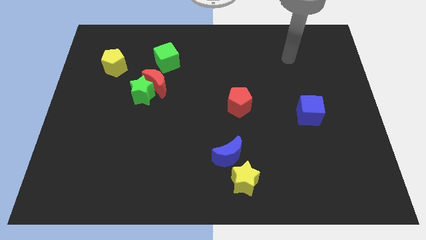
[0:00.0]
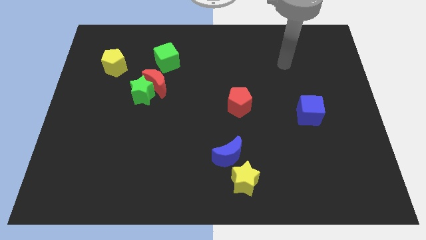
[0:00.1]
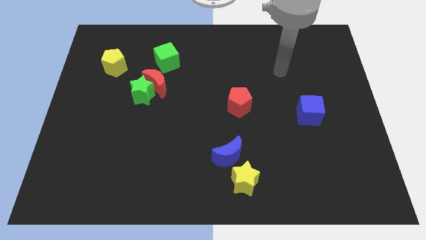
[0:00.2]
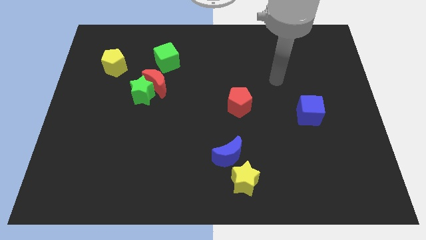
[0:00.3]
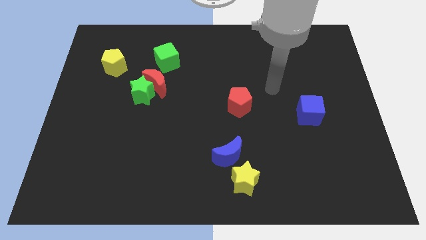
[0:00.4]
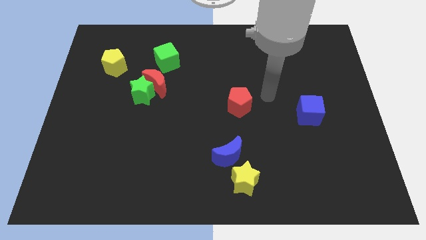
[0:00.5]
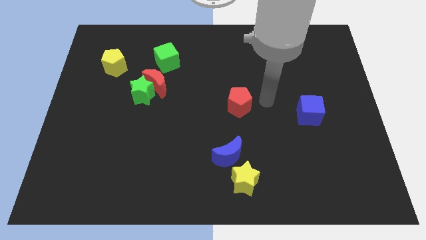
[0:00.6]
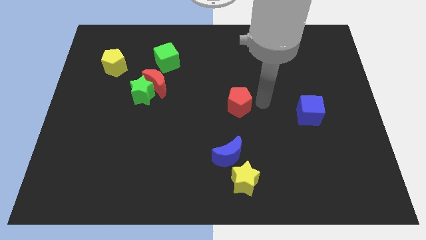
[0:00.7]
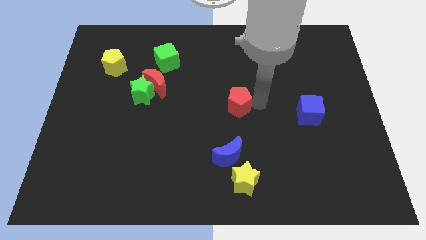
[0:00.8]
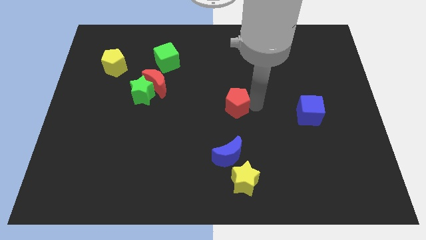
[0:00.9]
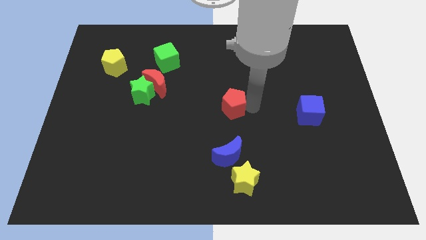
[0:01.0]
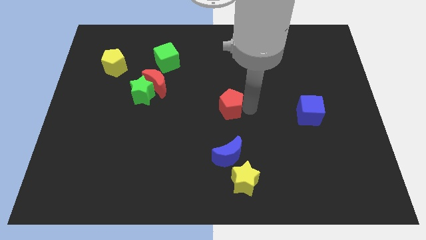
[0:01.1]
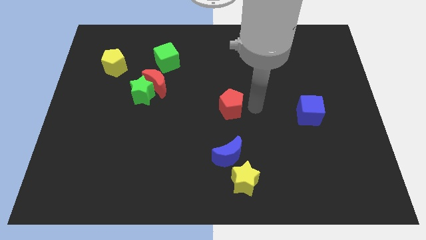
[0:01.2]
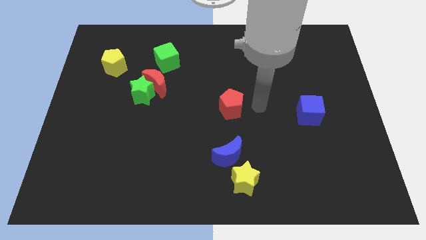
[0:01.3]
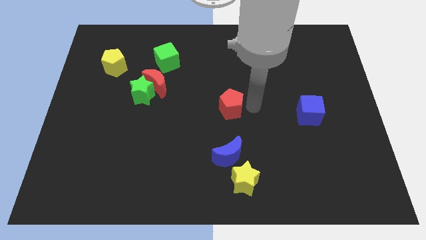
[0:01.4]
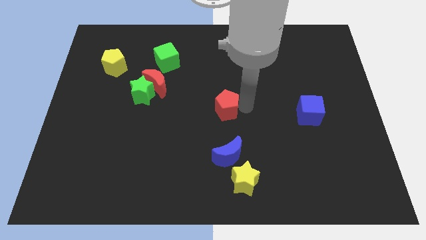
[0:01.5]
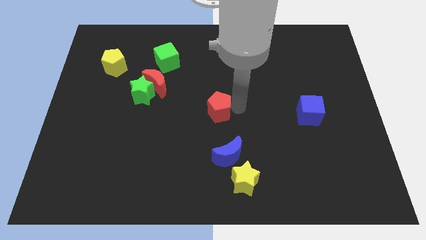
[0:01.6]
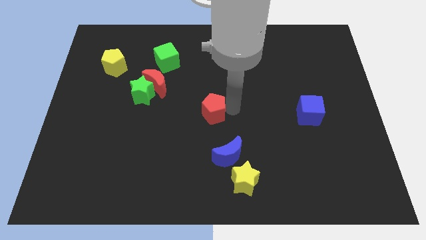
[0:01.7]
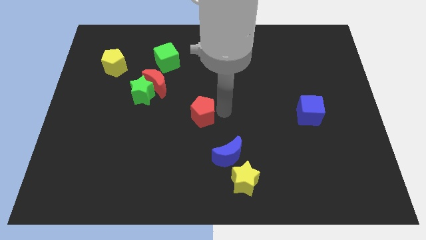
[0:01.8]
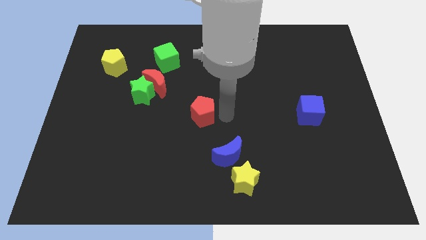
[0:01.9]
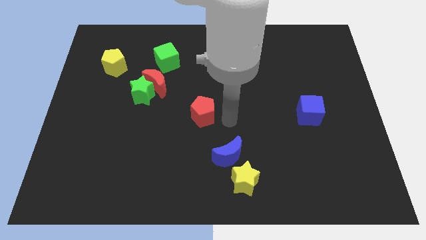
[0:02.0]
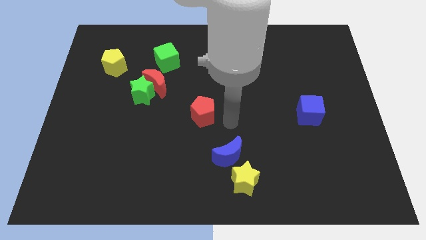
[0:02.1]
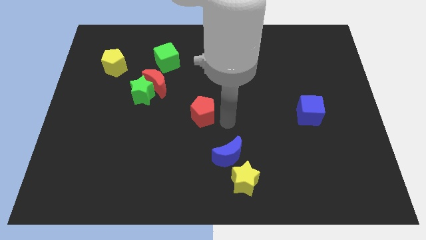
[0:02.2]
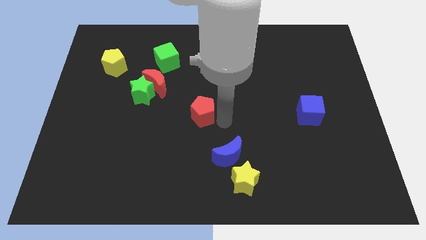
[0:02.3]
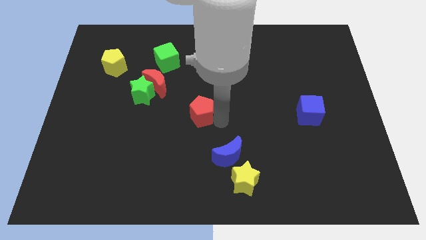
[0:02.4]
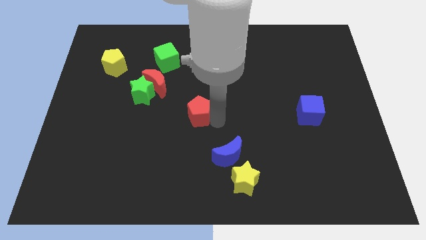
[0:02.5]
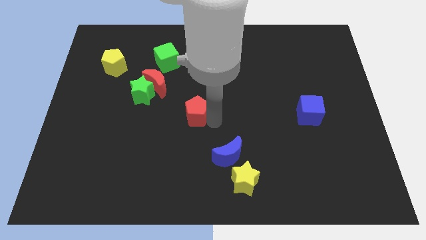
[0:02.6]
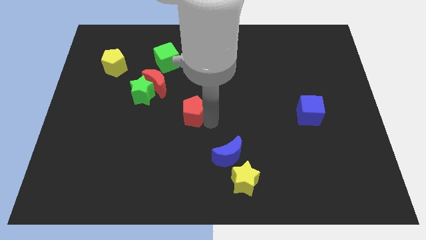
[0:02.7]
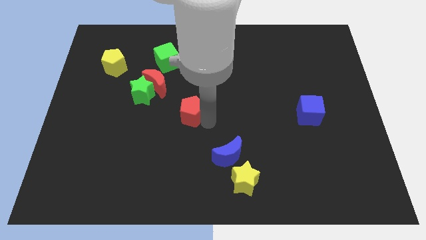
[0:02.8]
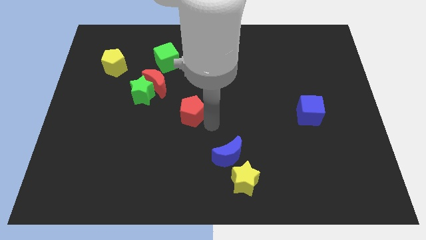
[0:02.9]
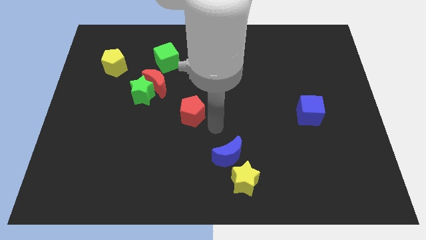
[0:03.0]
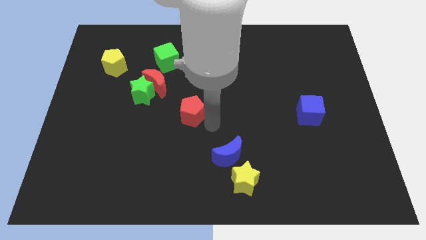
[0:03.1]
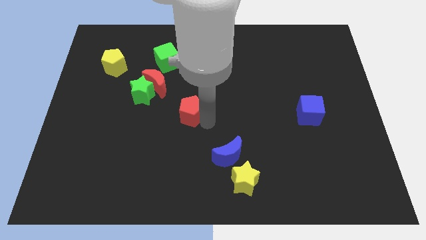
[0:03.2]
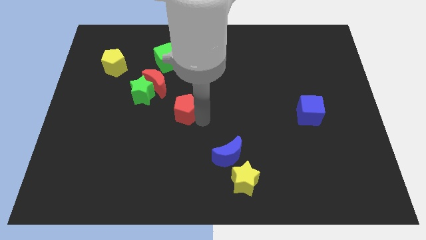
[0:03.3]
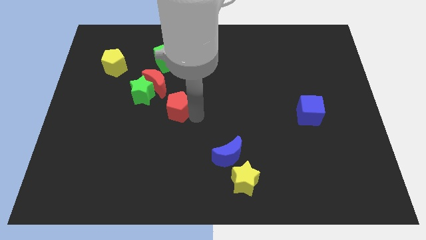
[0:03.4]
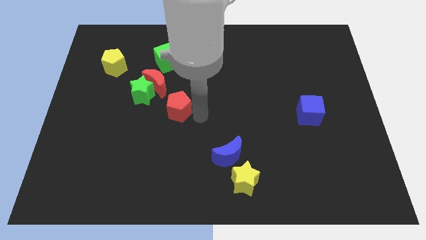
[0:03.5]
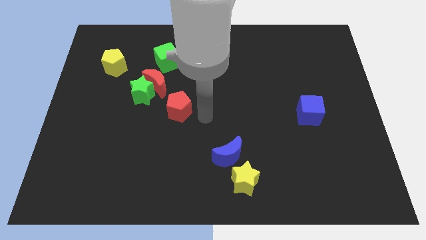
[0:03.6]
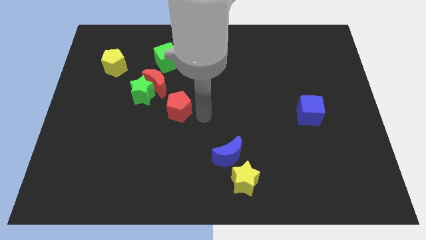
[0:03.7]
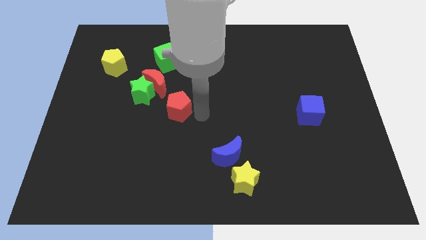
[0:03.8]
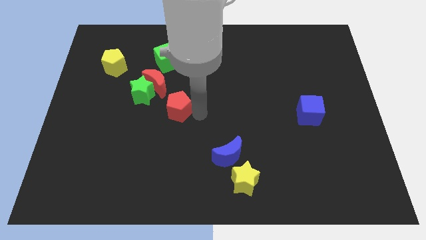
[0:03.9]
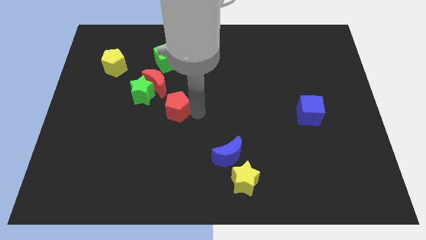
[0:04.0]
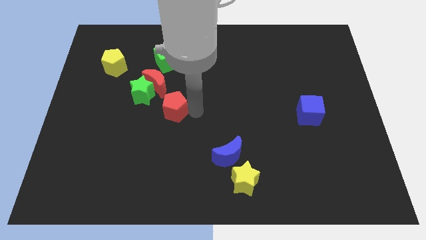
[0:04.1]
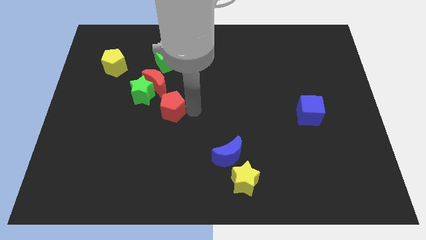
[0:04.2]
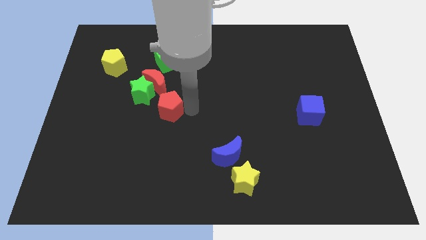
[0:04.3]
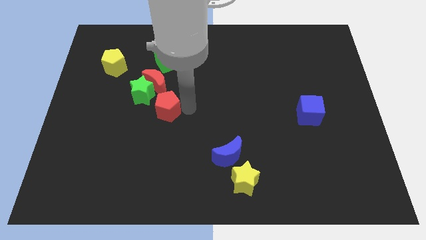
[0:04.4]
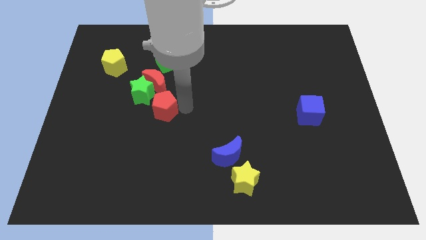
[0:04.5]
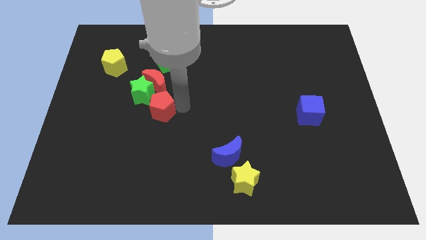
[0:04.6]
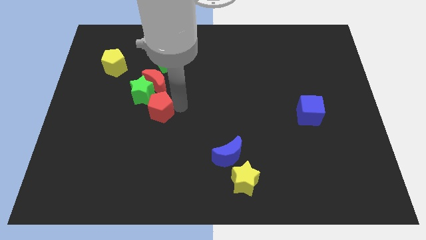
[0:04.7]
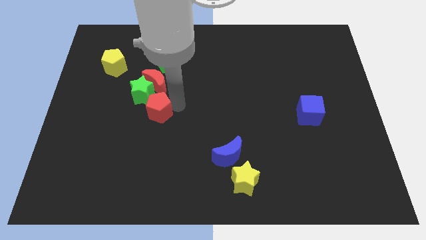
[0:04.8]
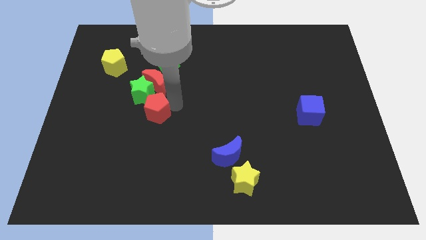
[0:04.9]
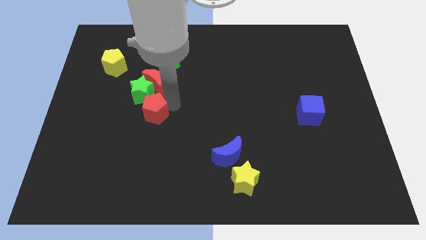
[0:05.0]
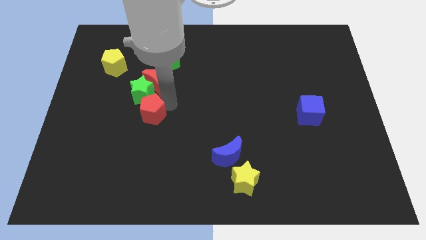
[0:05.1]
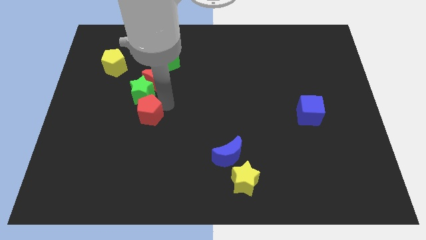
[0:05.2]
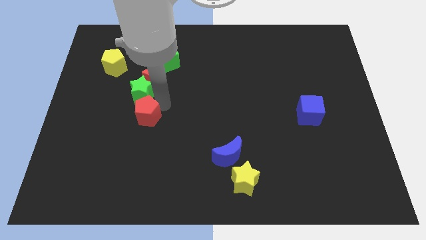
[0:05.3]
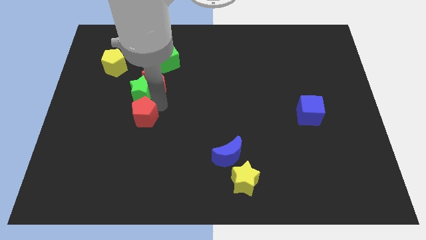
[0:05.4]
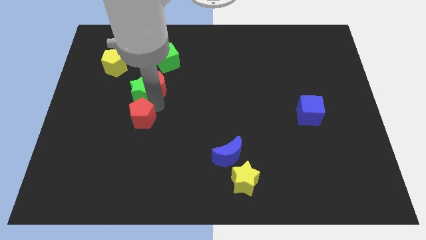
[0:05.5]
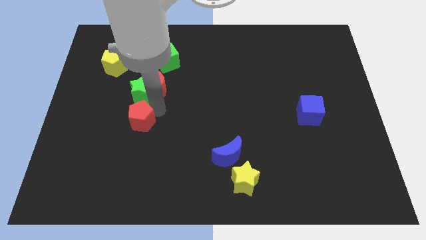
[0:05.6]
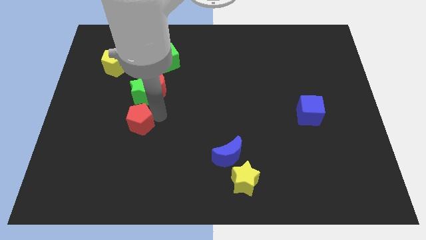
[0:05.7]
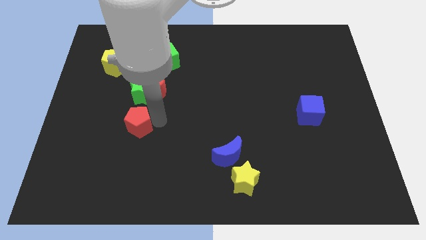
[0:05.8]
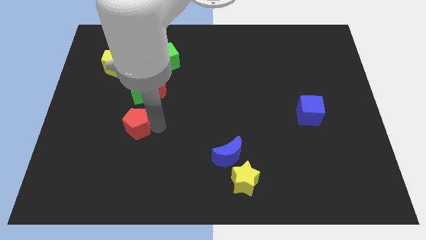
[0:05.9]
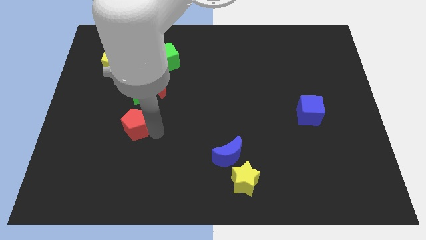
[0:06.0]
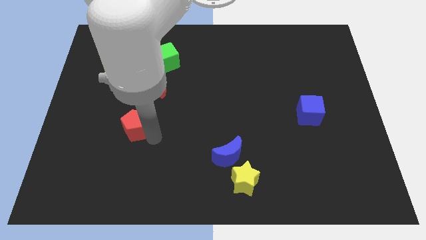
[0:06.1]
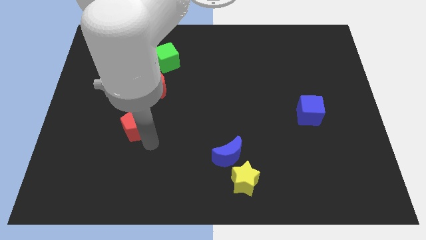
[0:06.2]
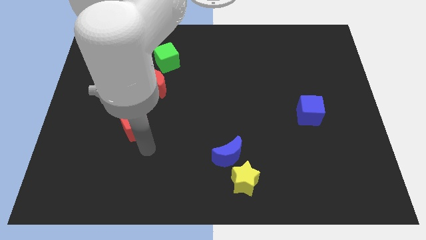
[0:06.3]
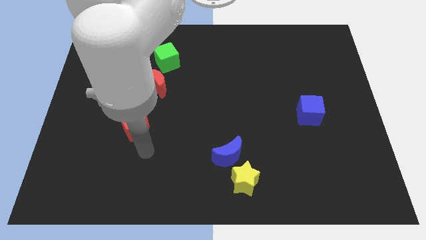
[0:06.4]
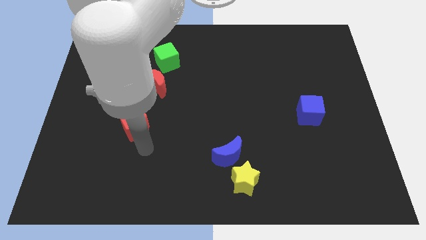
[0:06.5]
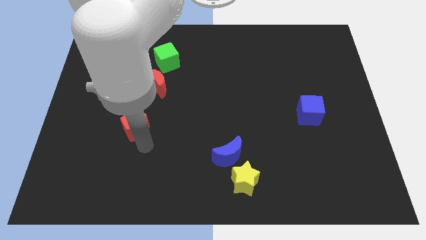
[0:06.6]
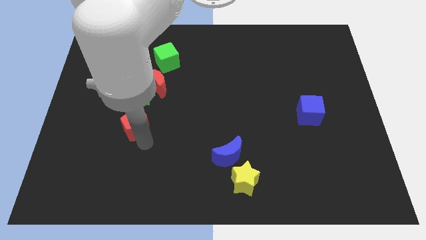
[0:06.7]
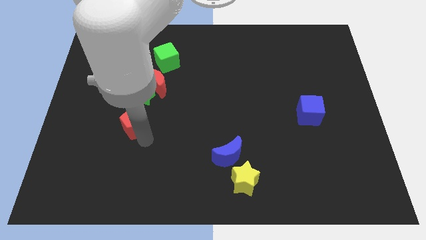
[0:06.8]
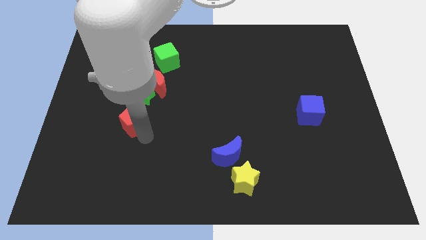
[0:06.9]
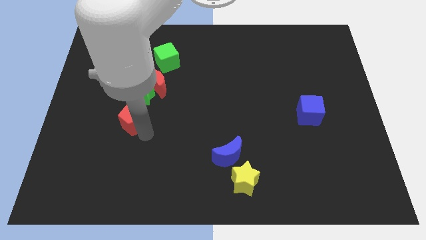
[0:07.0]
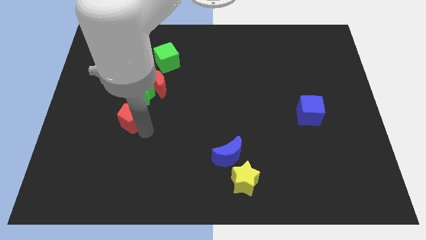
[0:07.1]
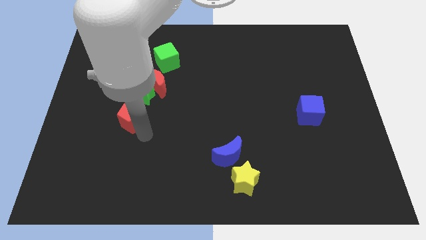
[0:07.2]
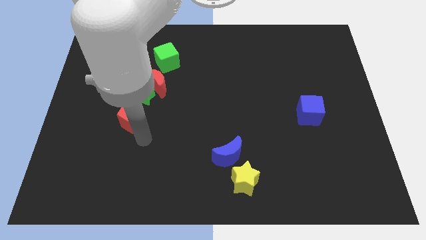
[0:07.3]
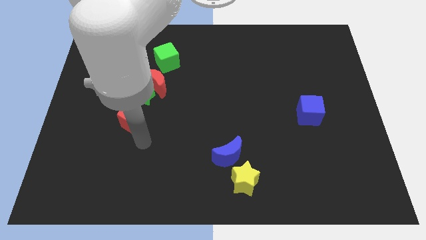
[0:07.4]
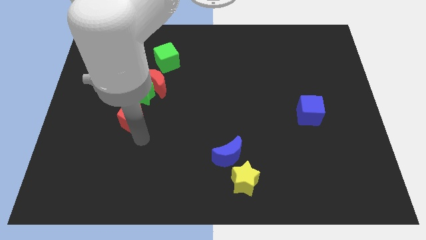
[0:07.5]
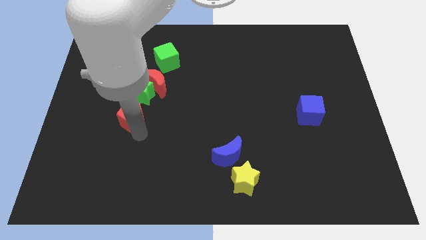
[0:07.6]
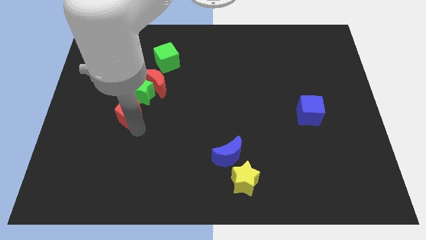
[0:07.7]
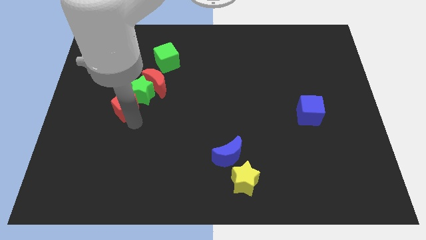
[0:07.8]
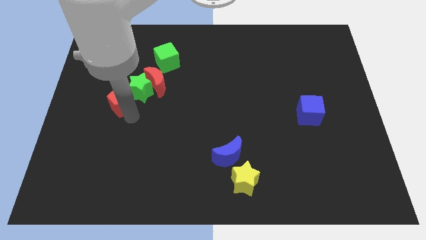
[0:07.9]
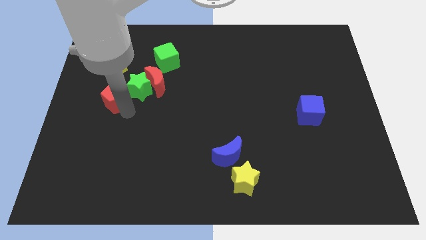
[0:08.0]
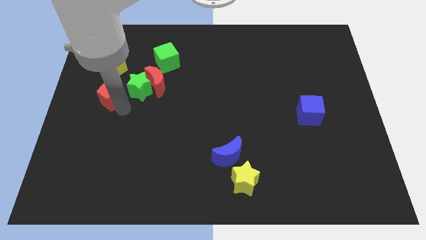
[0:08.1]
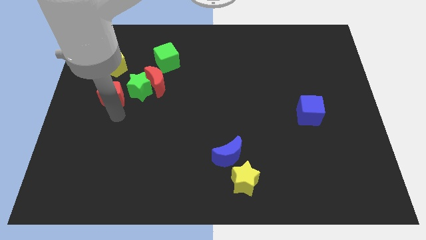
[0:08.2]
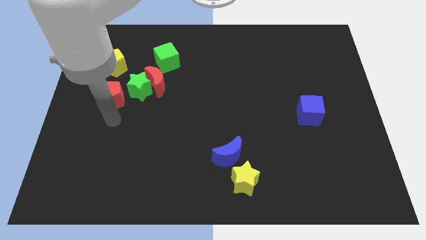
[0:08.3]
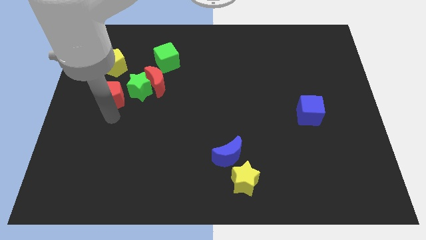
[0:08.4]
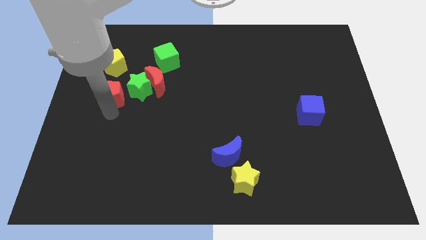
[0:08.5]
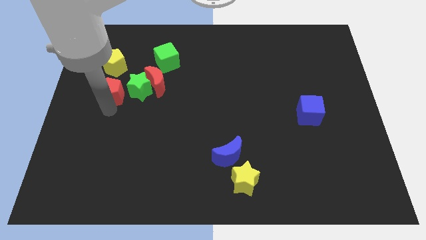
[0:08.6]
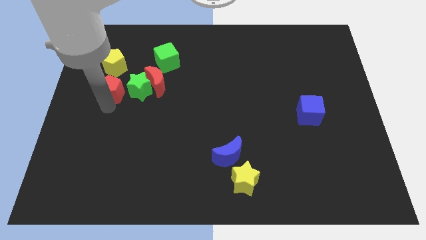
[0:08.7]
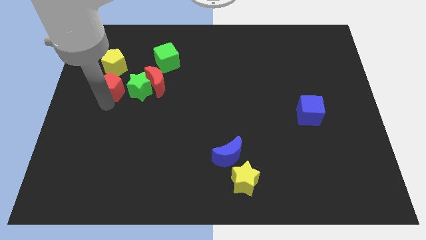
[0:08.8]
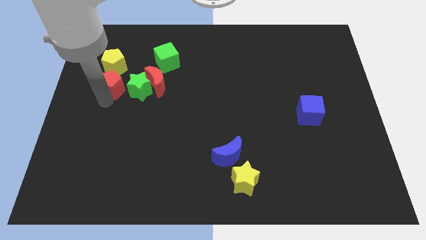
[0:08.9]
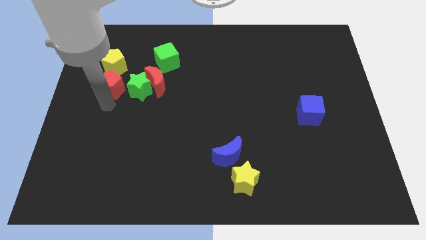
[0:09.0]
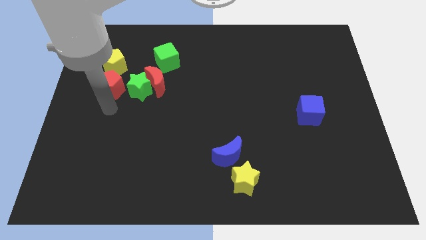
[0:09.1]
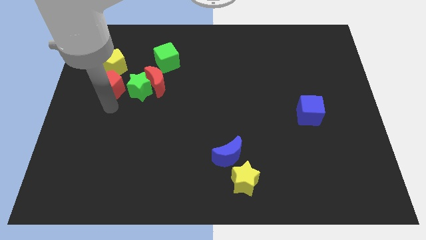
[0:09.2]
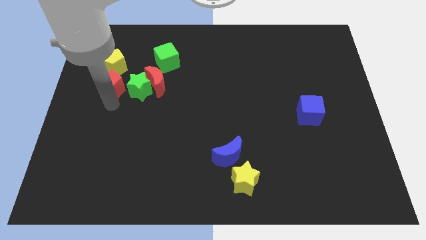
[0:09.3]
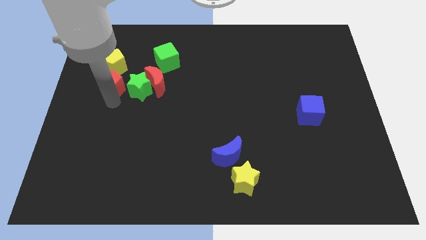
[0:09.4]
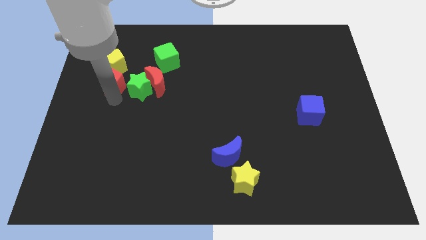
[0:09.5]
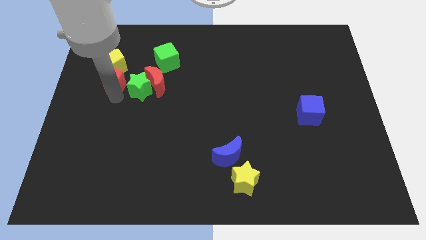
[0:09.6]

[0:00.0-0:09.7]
move the red pentagon close to the yellow pentagon
